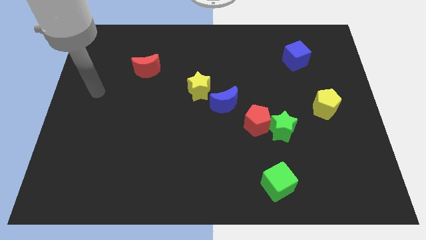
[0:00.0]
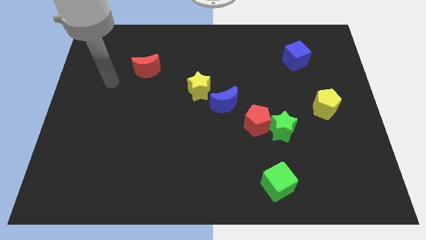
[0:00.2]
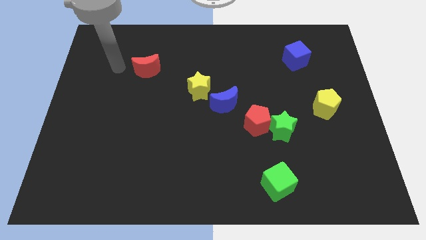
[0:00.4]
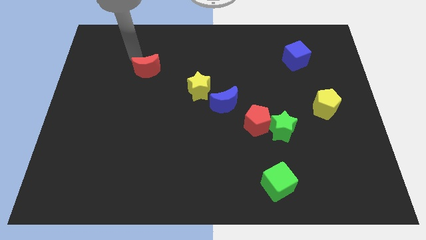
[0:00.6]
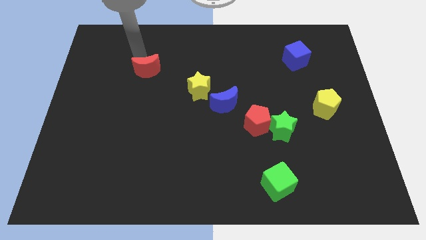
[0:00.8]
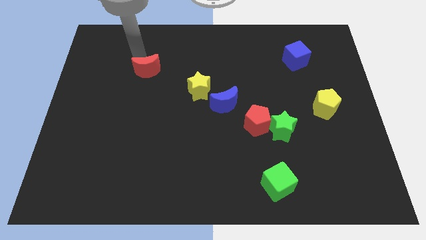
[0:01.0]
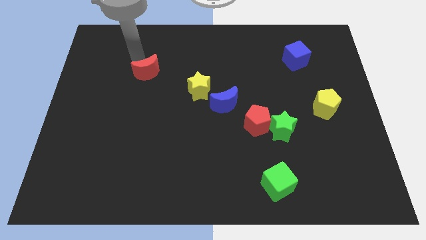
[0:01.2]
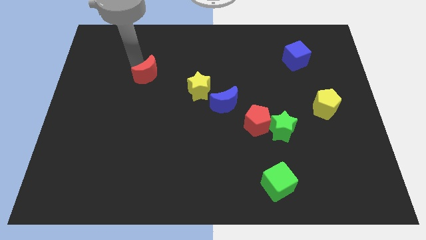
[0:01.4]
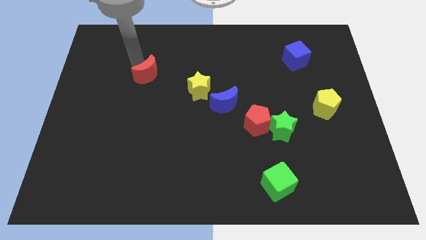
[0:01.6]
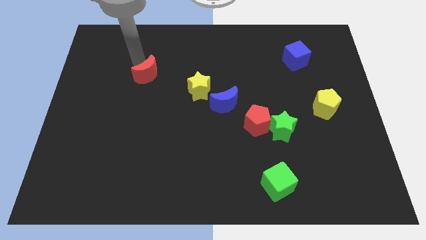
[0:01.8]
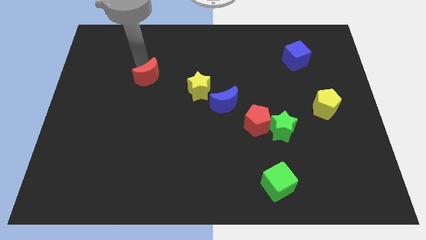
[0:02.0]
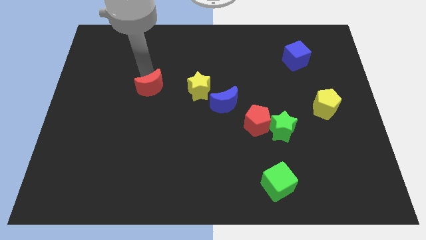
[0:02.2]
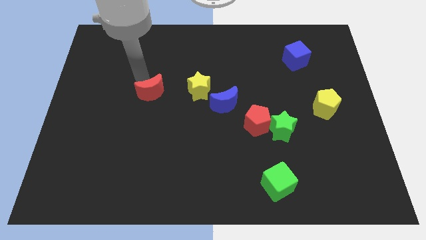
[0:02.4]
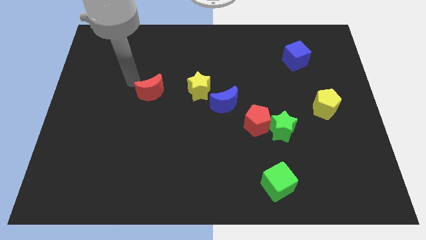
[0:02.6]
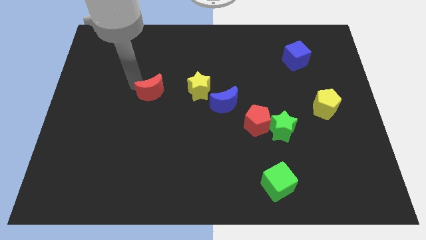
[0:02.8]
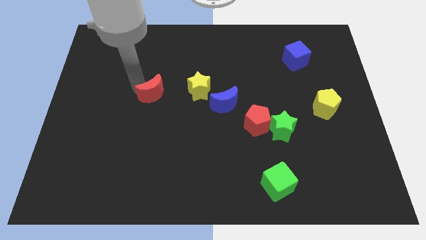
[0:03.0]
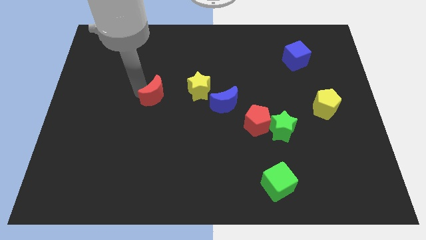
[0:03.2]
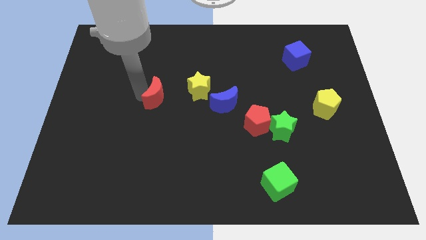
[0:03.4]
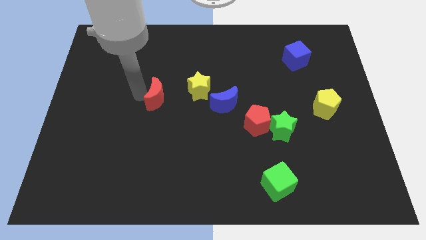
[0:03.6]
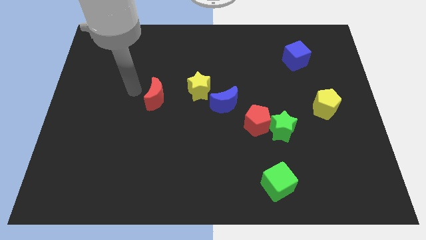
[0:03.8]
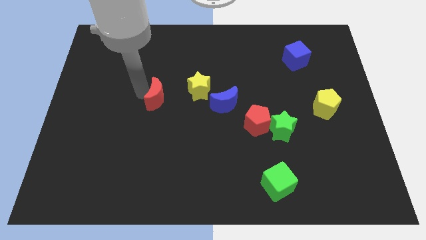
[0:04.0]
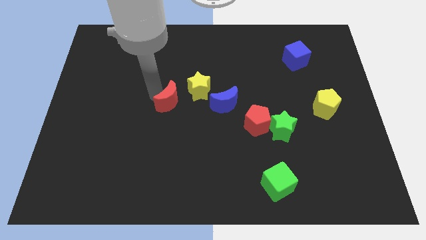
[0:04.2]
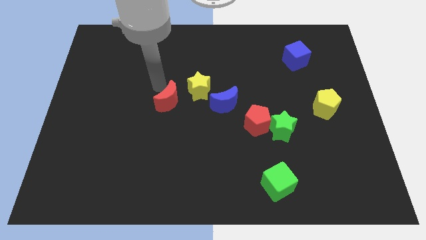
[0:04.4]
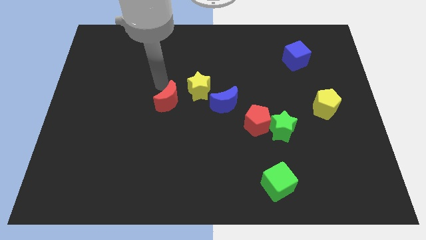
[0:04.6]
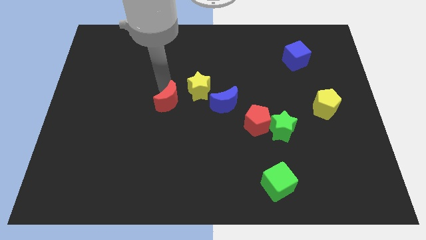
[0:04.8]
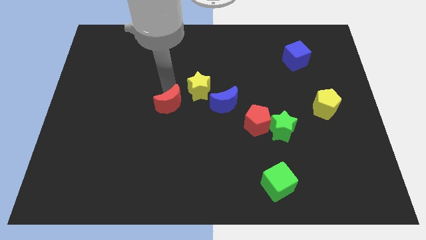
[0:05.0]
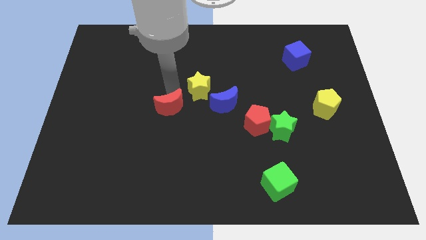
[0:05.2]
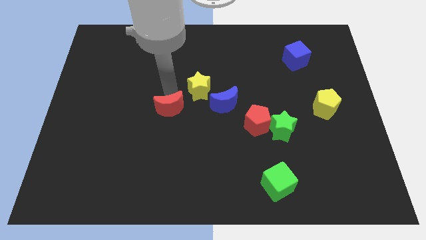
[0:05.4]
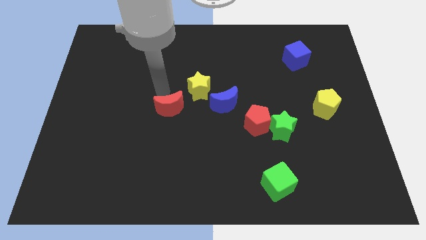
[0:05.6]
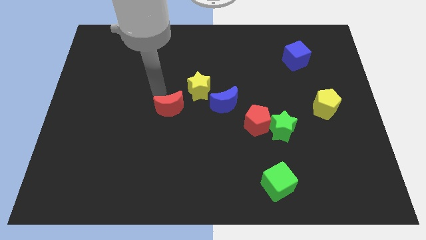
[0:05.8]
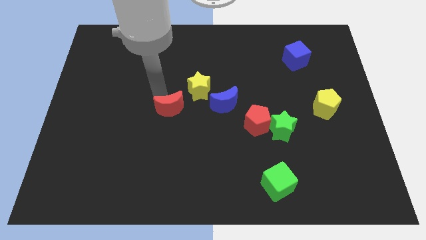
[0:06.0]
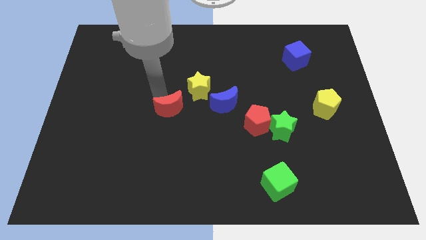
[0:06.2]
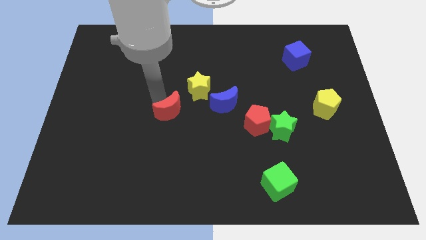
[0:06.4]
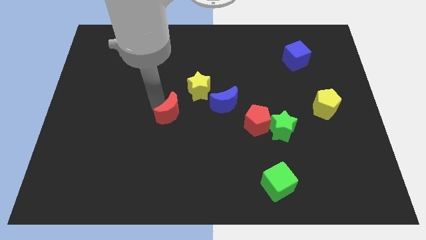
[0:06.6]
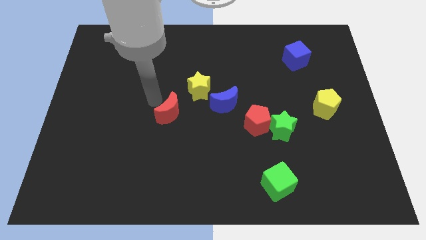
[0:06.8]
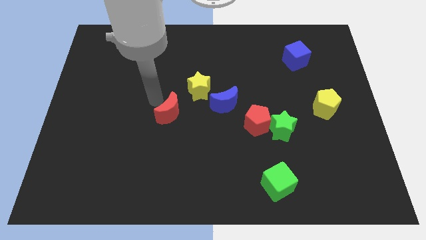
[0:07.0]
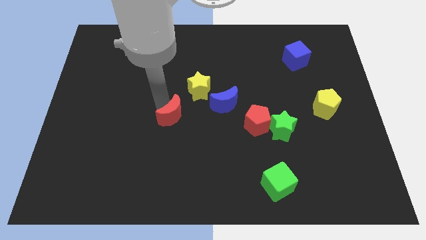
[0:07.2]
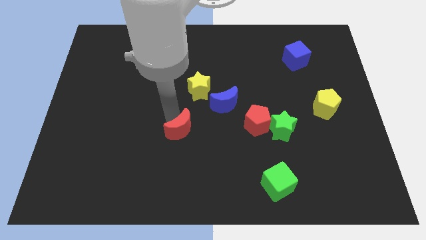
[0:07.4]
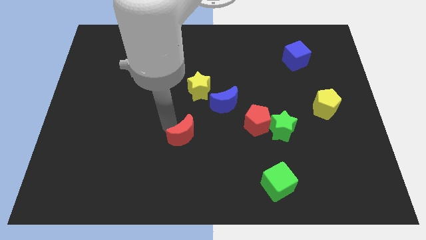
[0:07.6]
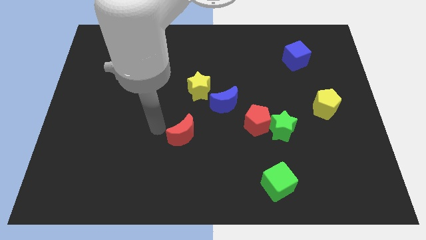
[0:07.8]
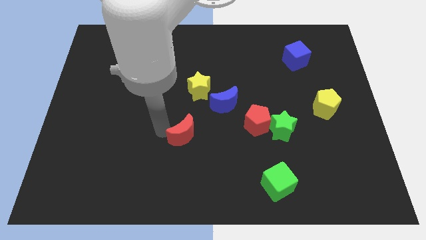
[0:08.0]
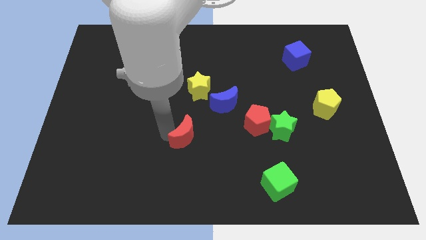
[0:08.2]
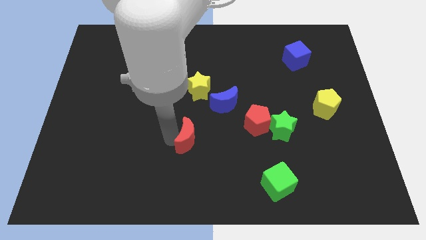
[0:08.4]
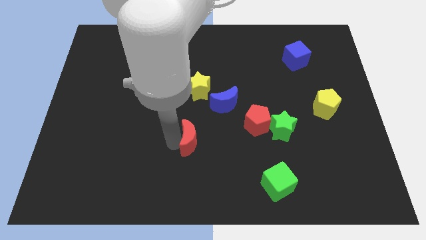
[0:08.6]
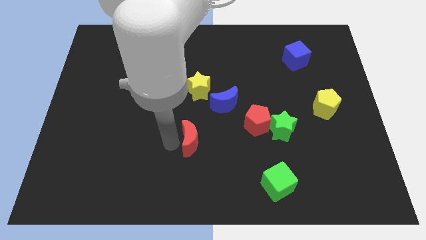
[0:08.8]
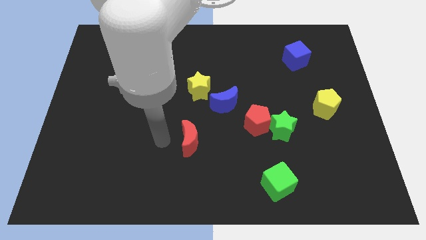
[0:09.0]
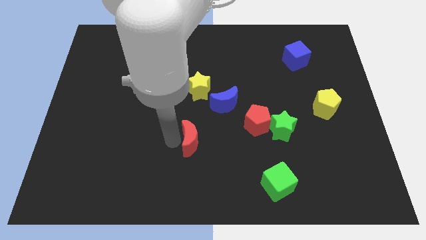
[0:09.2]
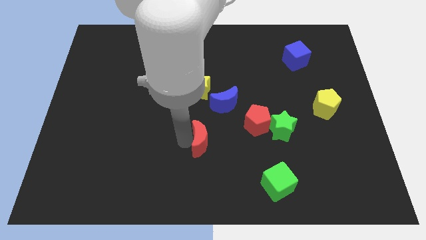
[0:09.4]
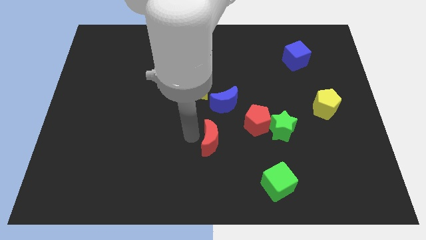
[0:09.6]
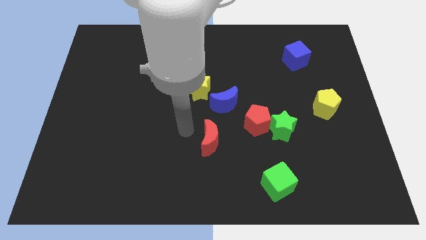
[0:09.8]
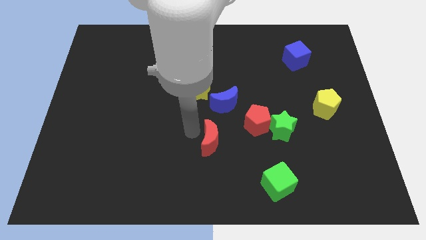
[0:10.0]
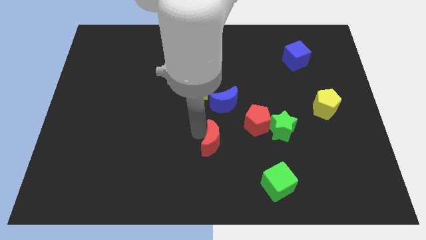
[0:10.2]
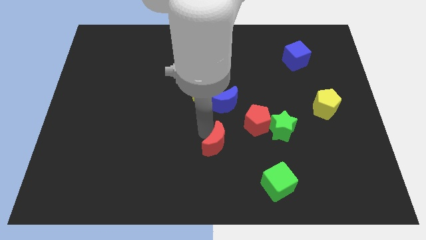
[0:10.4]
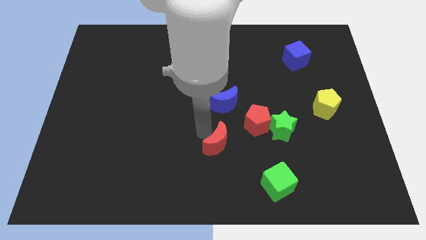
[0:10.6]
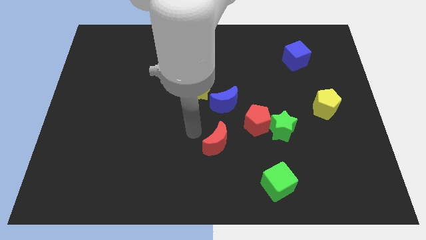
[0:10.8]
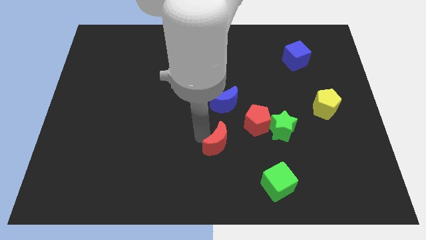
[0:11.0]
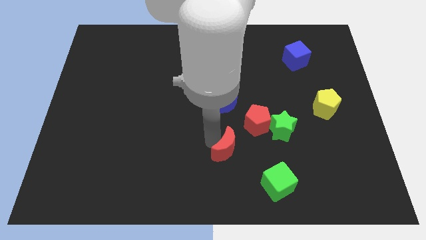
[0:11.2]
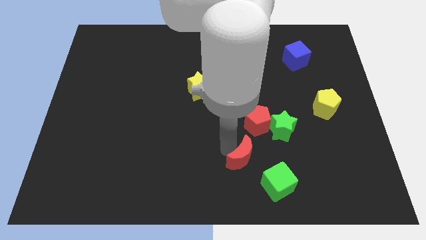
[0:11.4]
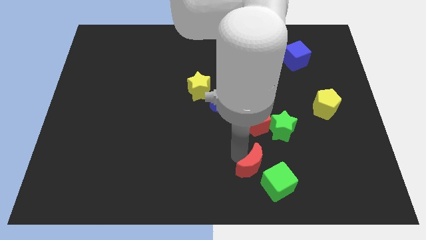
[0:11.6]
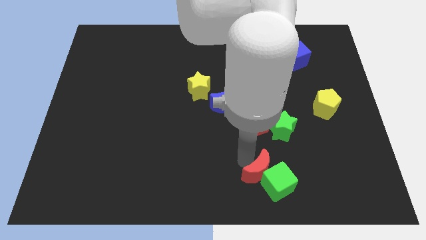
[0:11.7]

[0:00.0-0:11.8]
slide the red moon towards the green cube
